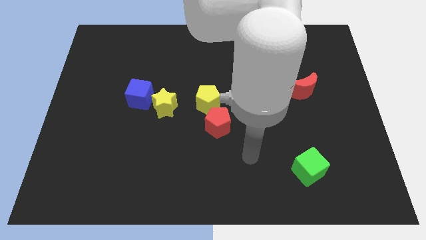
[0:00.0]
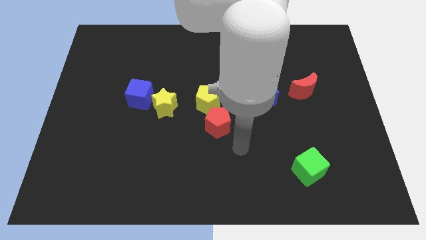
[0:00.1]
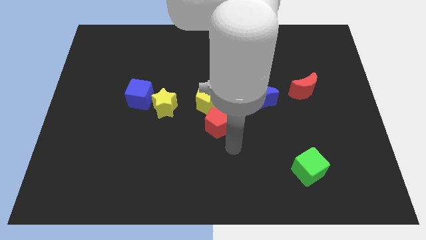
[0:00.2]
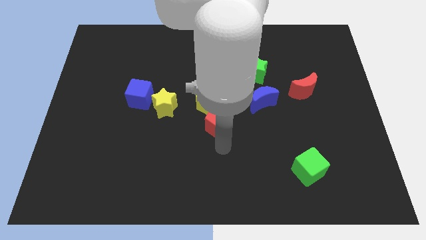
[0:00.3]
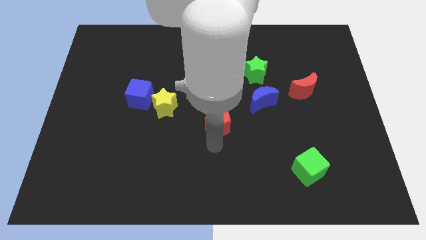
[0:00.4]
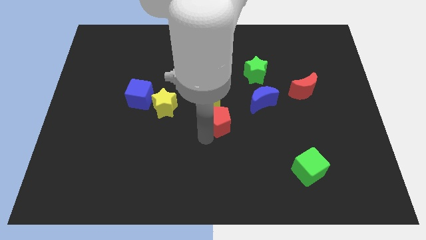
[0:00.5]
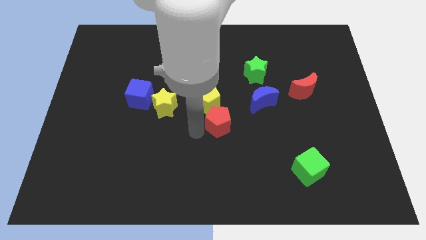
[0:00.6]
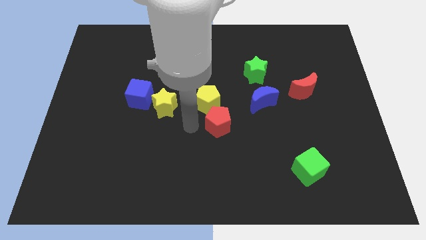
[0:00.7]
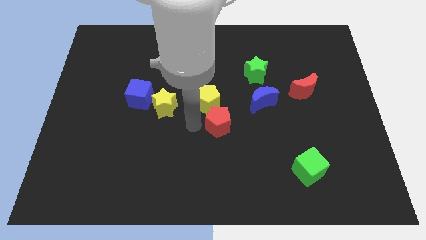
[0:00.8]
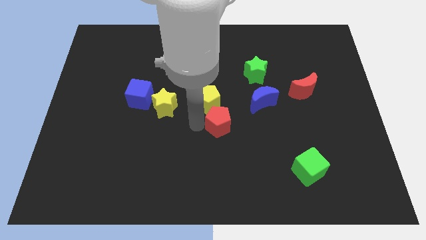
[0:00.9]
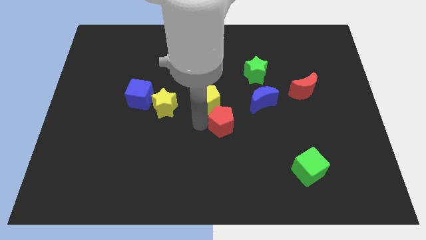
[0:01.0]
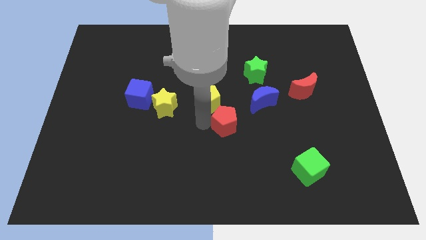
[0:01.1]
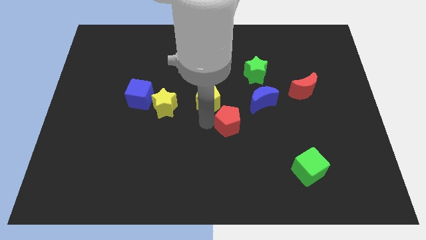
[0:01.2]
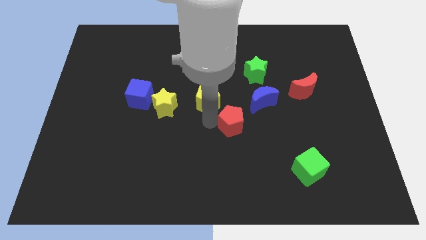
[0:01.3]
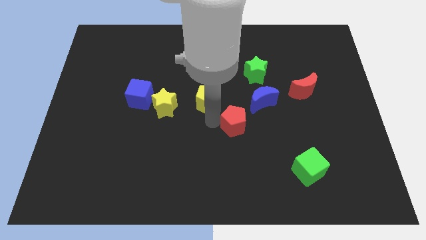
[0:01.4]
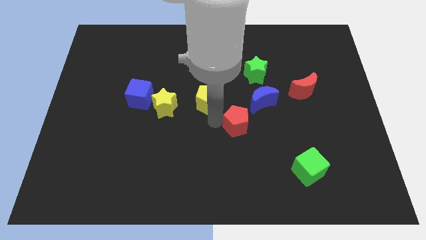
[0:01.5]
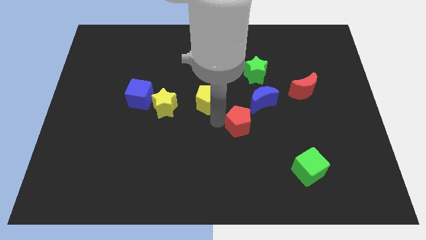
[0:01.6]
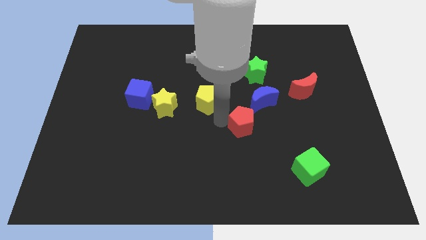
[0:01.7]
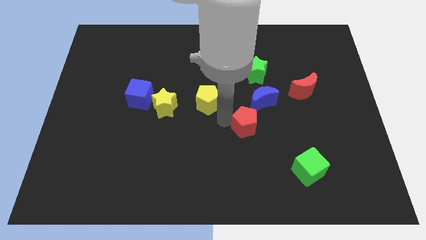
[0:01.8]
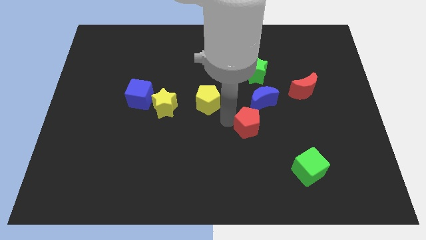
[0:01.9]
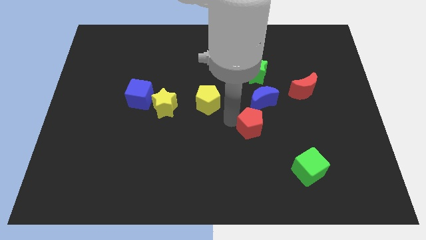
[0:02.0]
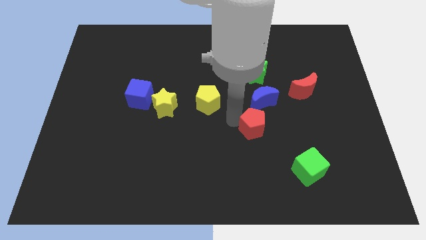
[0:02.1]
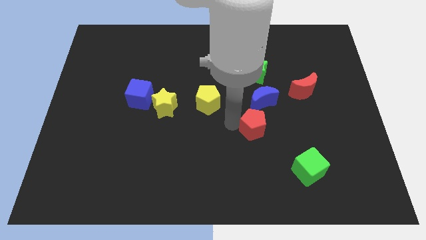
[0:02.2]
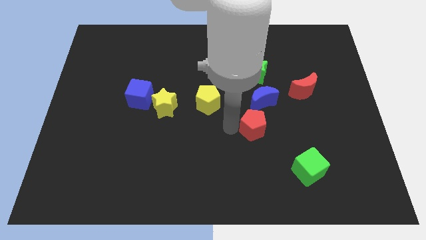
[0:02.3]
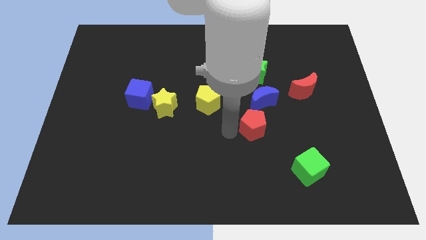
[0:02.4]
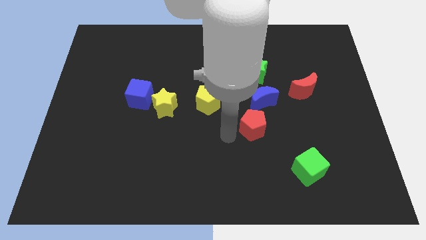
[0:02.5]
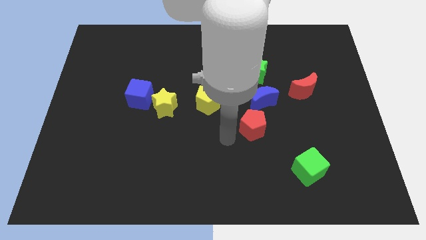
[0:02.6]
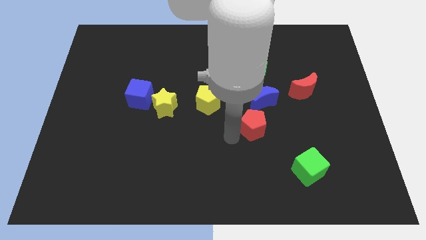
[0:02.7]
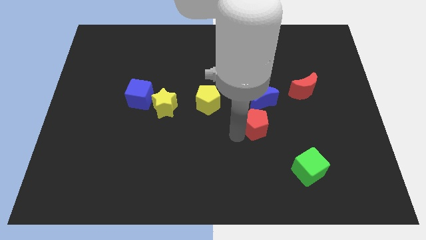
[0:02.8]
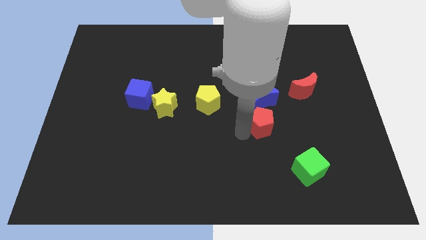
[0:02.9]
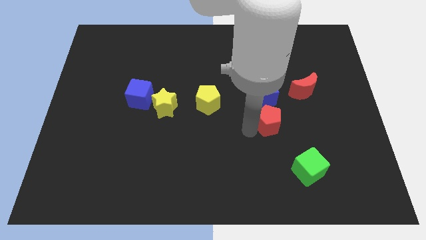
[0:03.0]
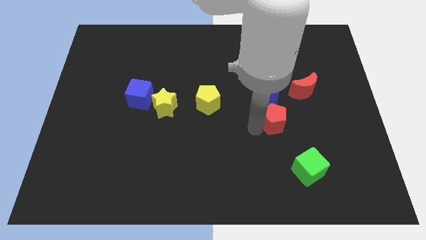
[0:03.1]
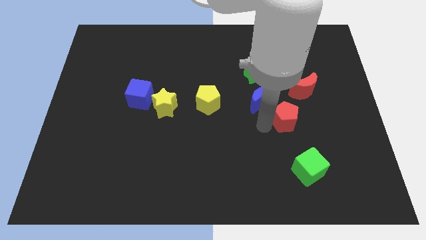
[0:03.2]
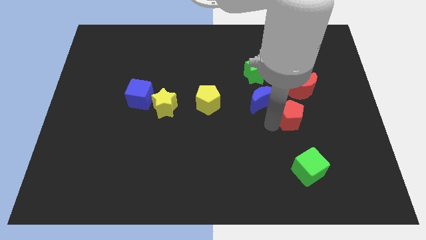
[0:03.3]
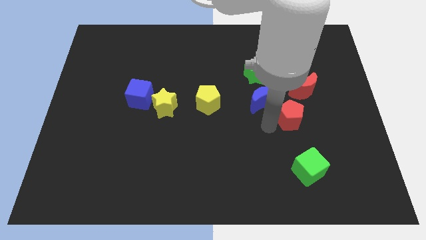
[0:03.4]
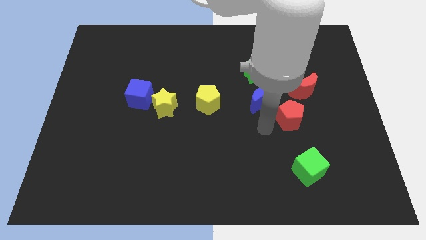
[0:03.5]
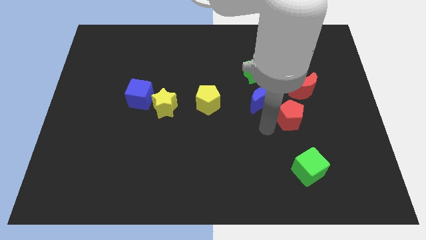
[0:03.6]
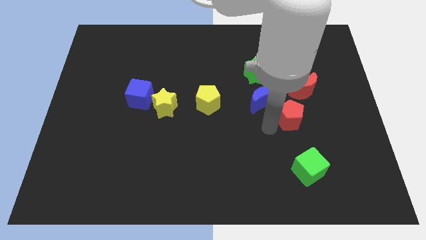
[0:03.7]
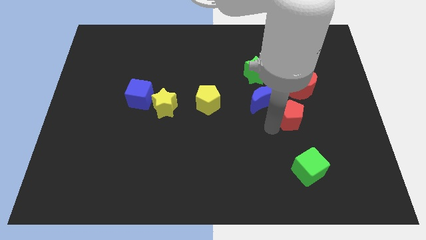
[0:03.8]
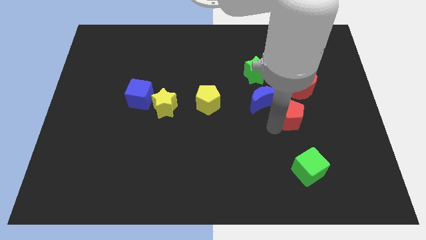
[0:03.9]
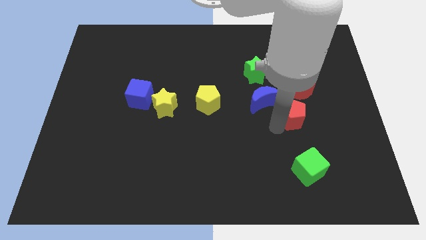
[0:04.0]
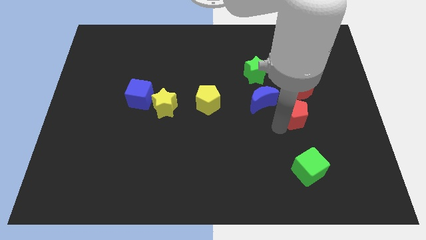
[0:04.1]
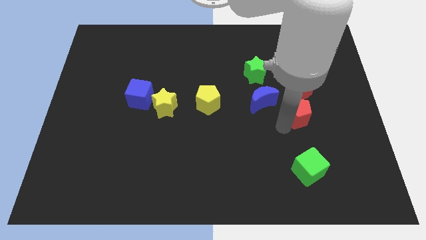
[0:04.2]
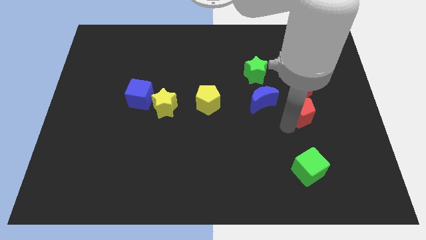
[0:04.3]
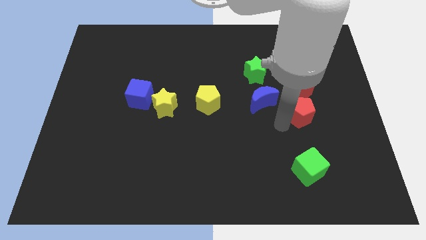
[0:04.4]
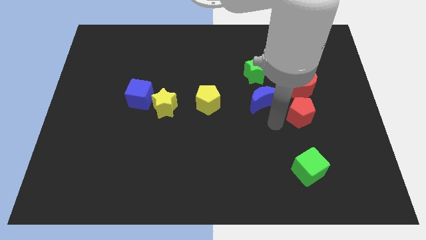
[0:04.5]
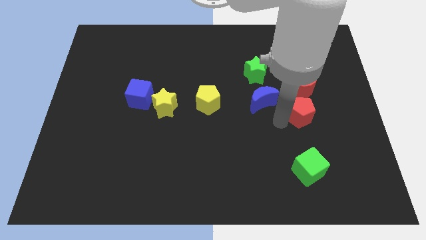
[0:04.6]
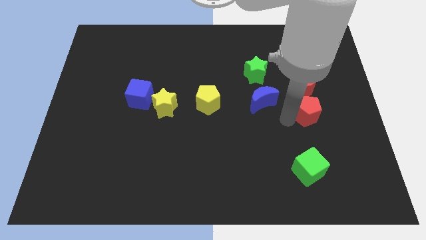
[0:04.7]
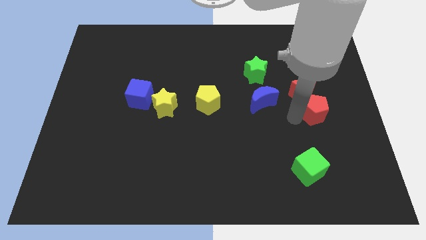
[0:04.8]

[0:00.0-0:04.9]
slide the red pentagon diagonally down and to the right of the red moon

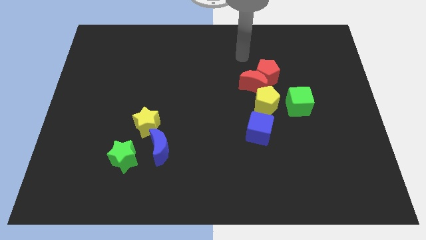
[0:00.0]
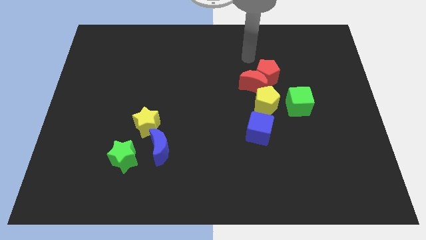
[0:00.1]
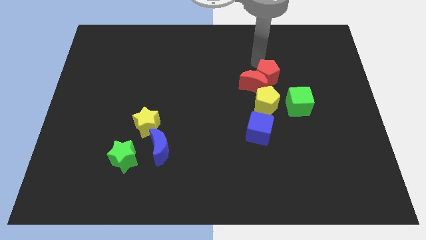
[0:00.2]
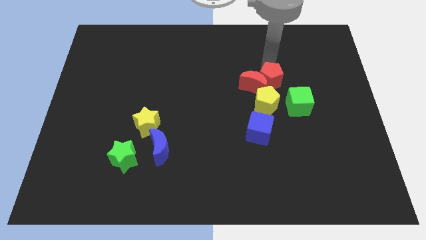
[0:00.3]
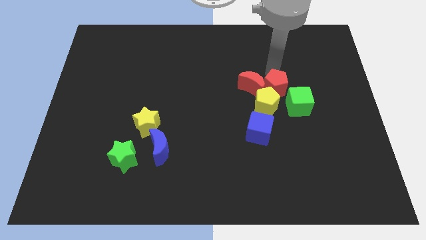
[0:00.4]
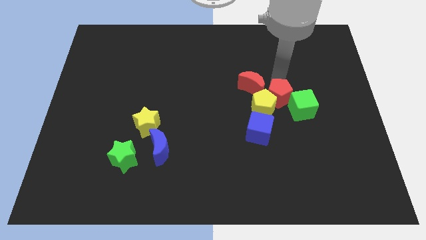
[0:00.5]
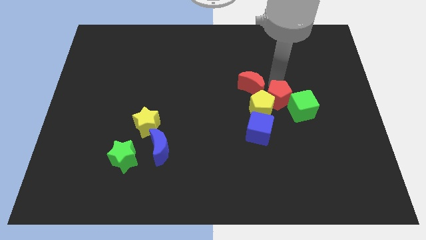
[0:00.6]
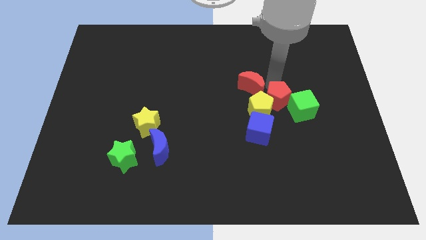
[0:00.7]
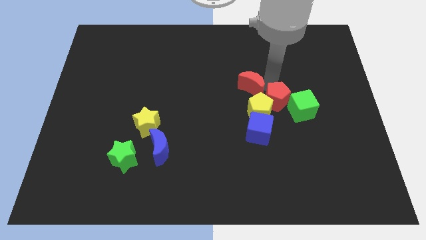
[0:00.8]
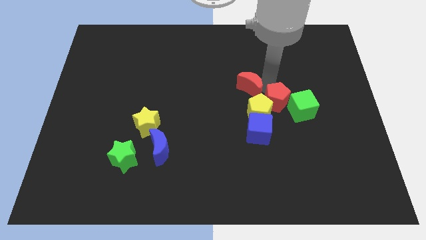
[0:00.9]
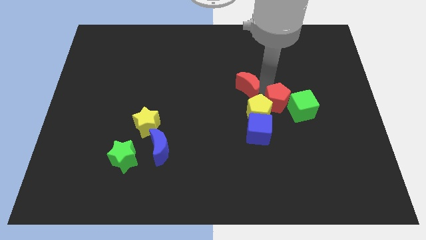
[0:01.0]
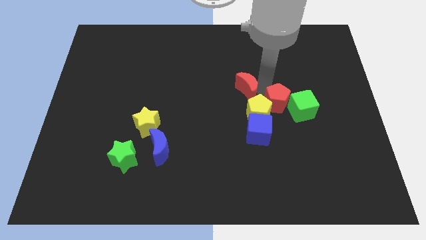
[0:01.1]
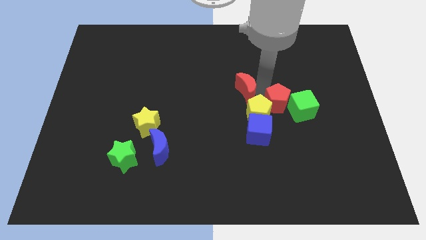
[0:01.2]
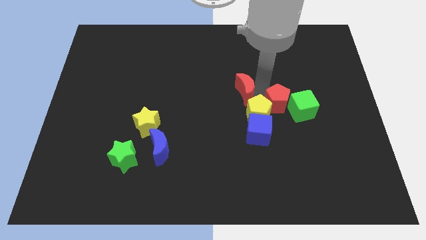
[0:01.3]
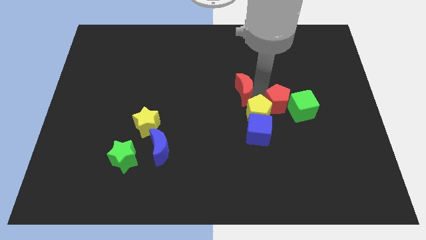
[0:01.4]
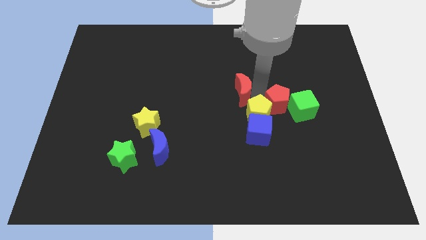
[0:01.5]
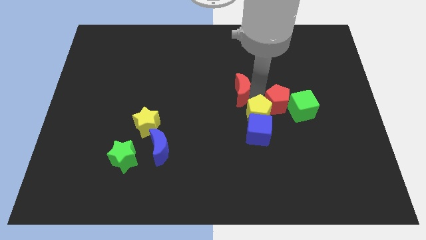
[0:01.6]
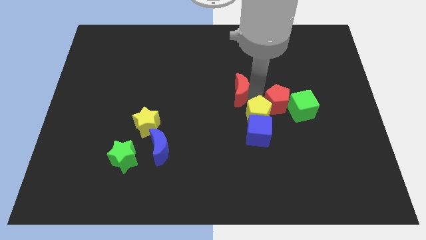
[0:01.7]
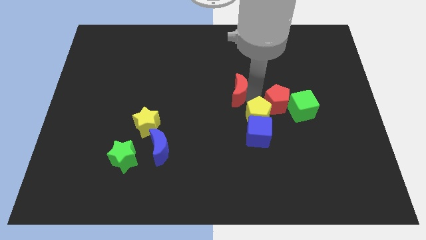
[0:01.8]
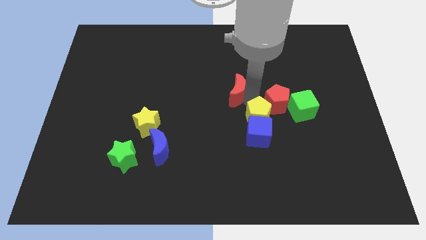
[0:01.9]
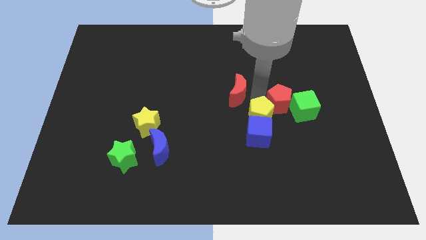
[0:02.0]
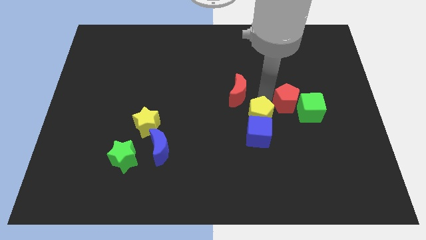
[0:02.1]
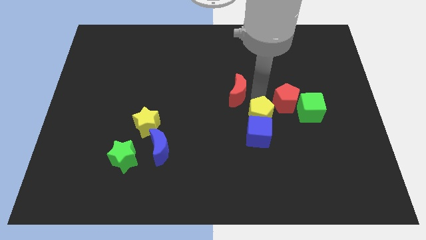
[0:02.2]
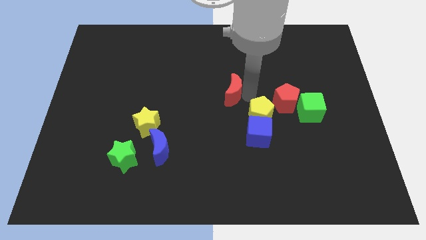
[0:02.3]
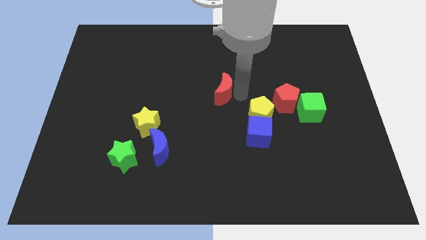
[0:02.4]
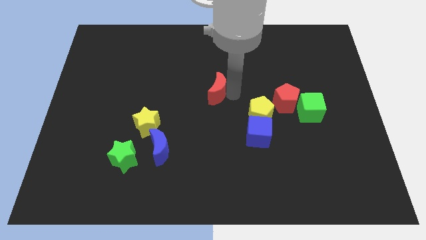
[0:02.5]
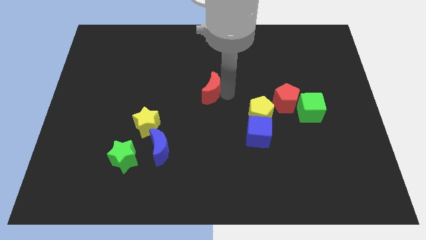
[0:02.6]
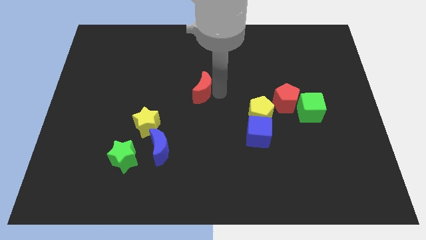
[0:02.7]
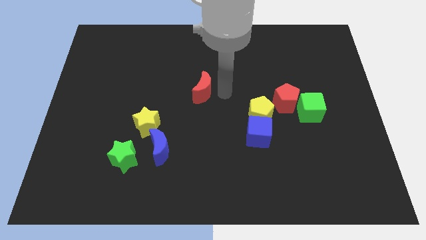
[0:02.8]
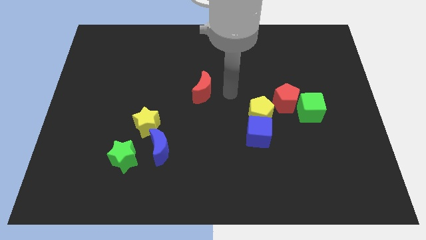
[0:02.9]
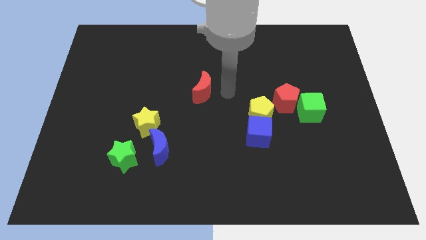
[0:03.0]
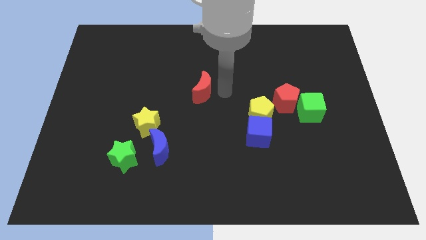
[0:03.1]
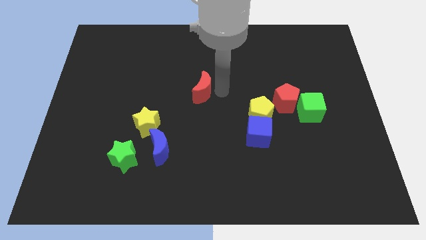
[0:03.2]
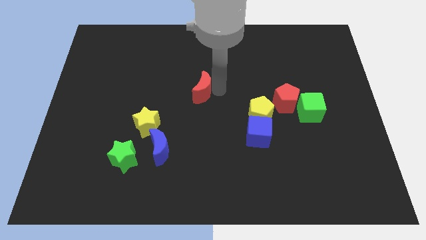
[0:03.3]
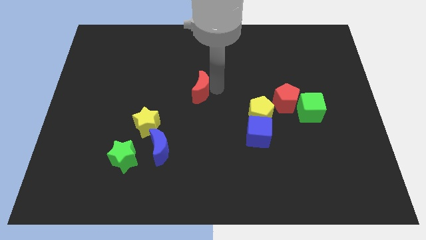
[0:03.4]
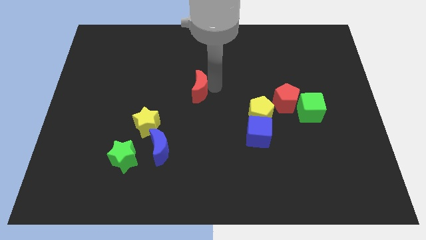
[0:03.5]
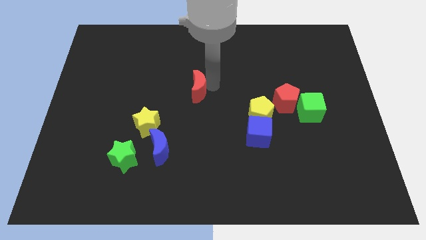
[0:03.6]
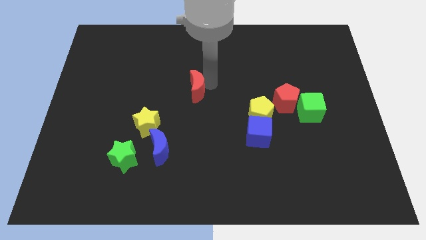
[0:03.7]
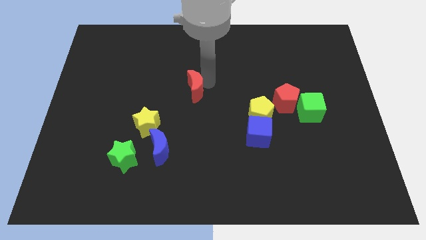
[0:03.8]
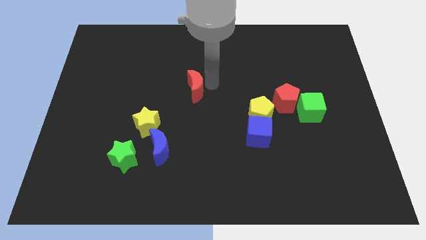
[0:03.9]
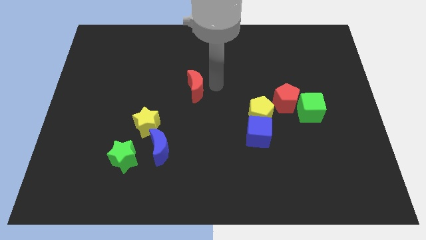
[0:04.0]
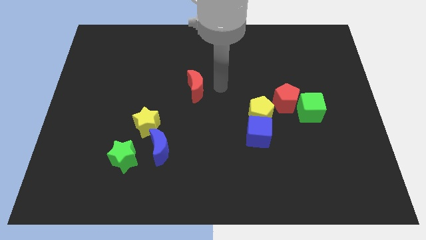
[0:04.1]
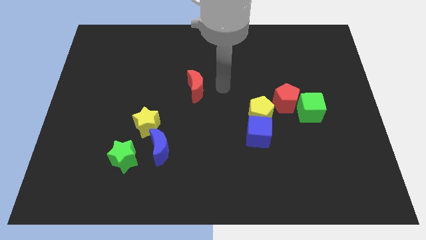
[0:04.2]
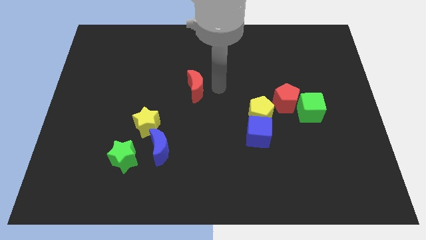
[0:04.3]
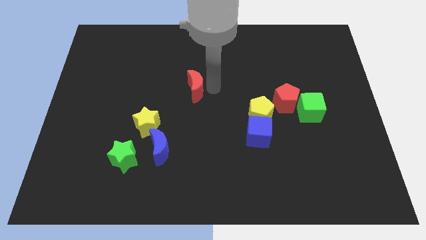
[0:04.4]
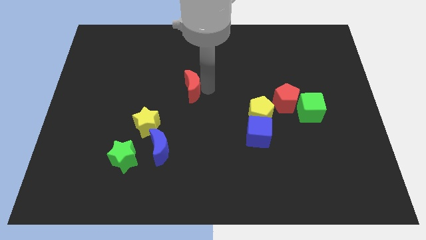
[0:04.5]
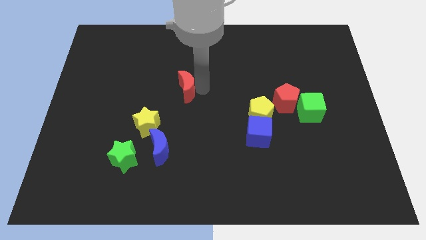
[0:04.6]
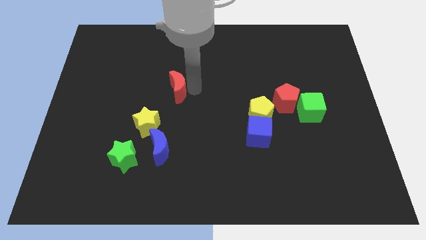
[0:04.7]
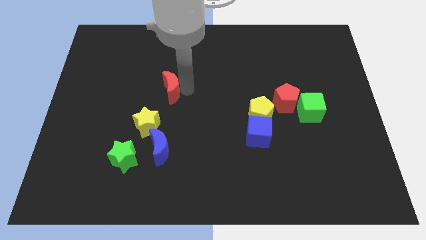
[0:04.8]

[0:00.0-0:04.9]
move the red moon above the yellow star
